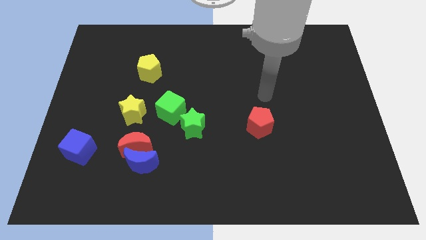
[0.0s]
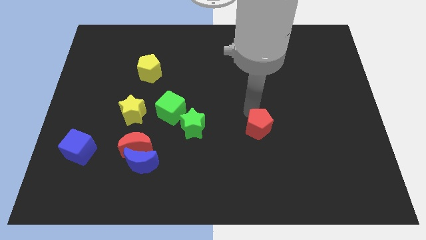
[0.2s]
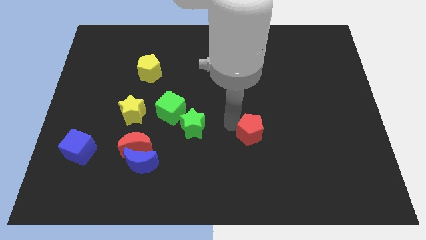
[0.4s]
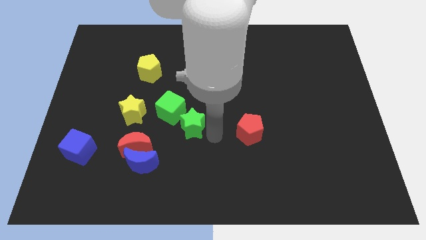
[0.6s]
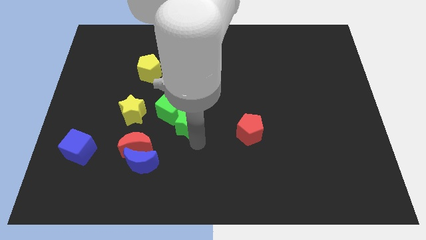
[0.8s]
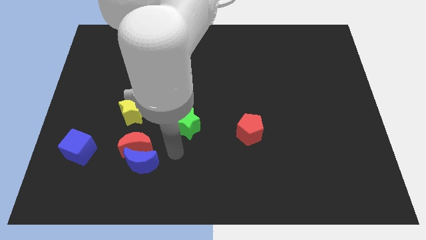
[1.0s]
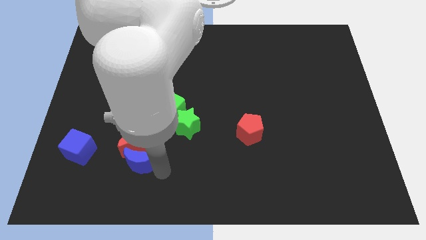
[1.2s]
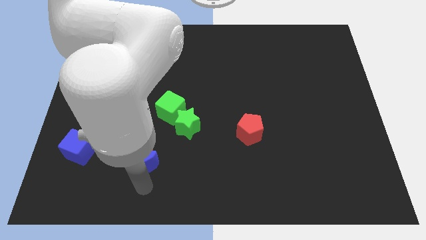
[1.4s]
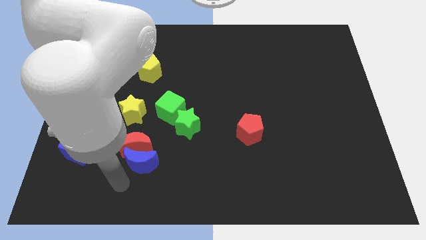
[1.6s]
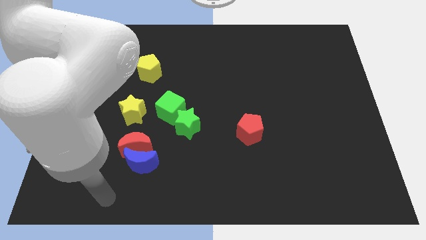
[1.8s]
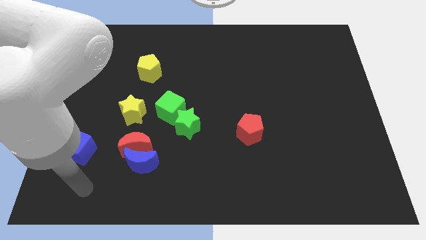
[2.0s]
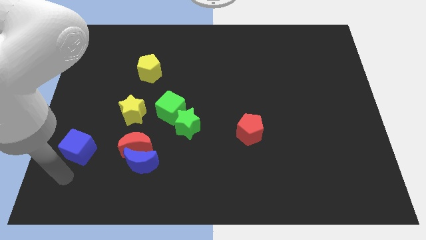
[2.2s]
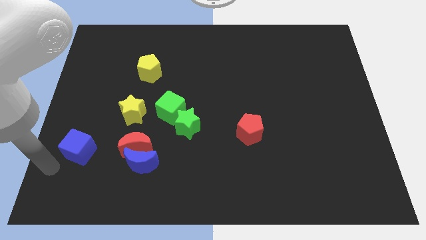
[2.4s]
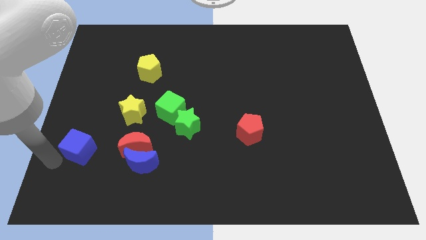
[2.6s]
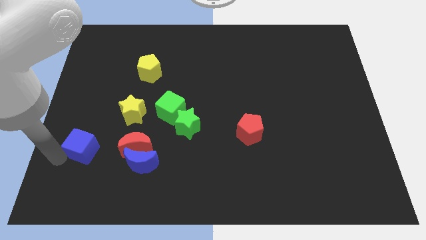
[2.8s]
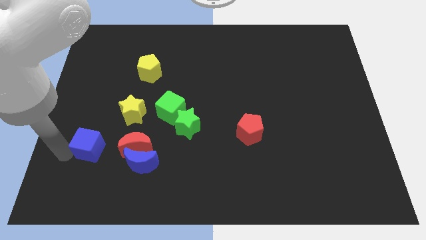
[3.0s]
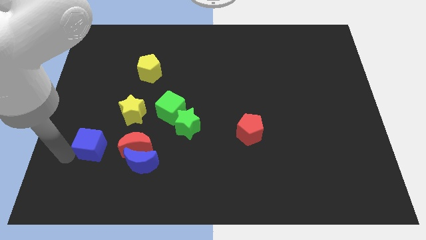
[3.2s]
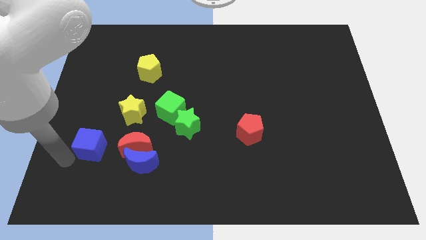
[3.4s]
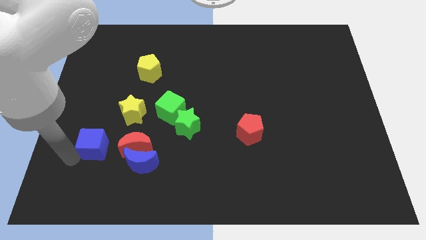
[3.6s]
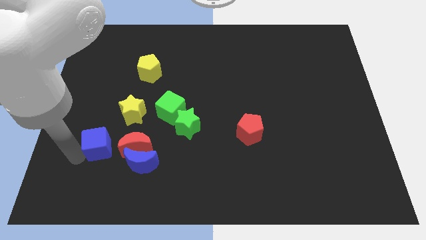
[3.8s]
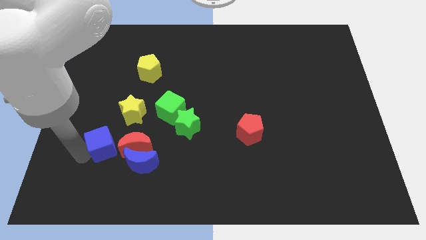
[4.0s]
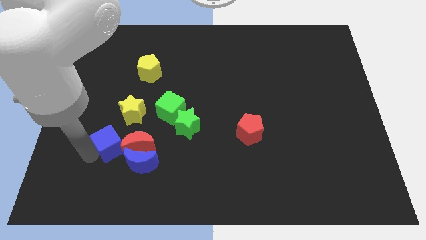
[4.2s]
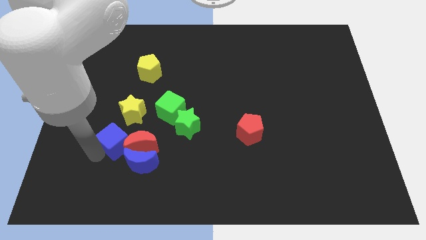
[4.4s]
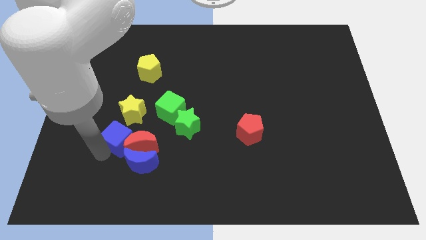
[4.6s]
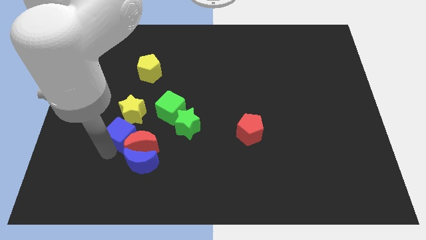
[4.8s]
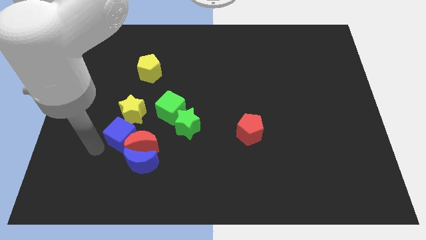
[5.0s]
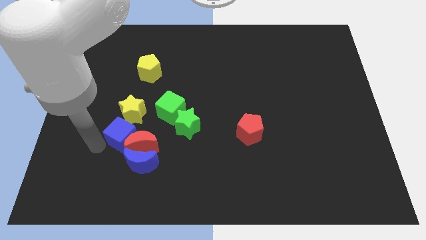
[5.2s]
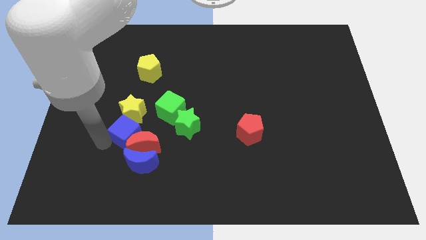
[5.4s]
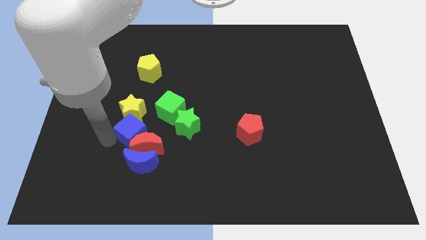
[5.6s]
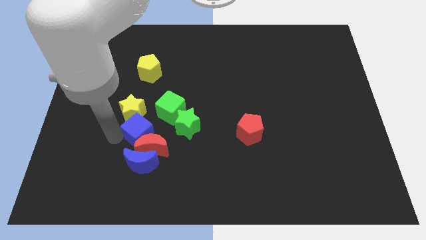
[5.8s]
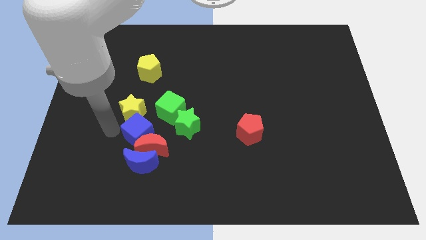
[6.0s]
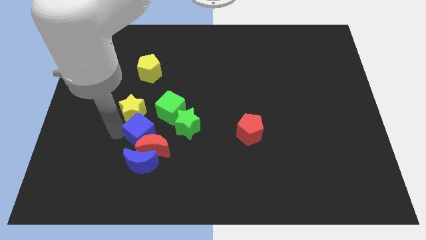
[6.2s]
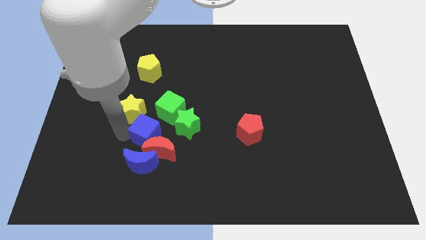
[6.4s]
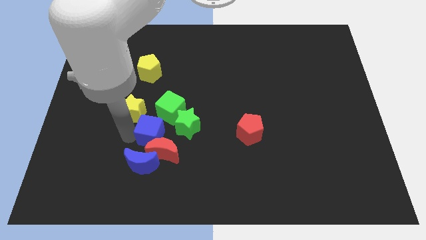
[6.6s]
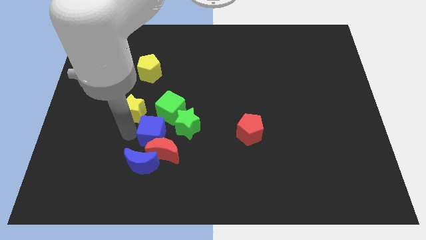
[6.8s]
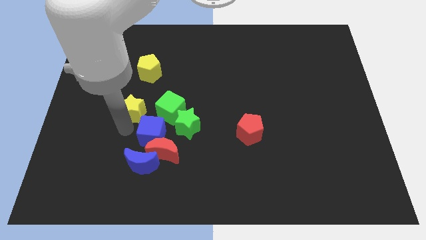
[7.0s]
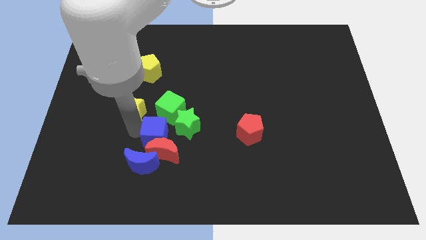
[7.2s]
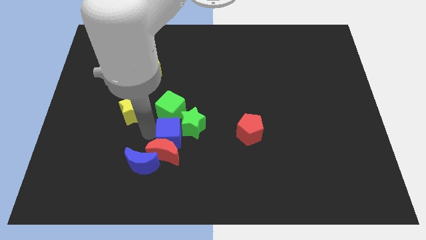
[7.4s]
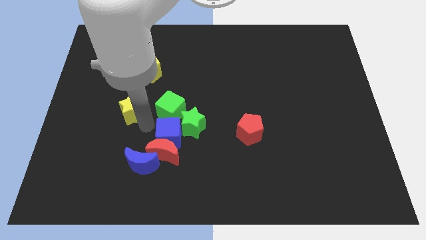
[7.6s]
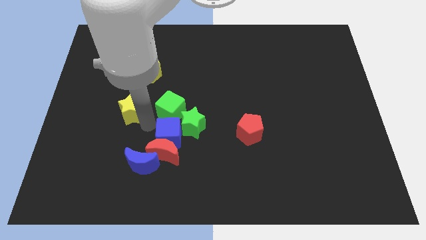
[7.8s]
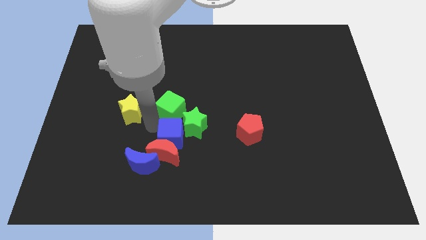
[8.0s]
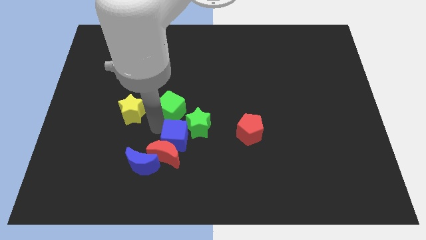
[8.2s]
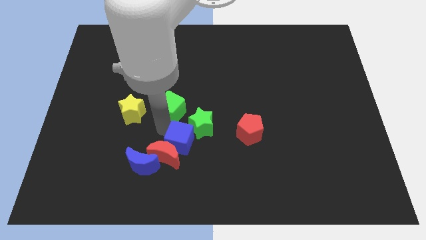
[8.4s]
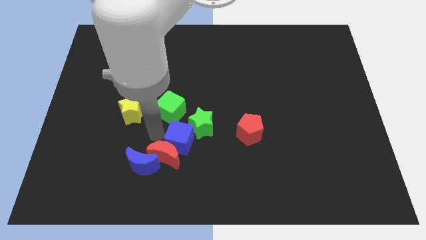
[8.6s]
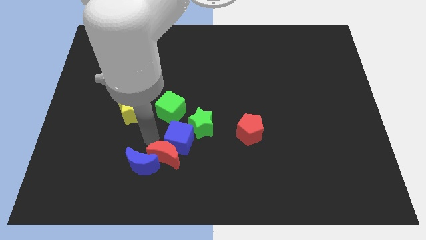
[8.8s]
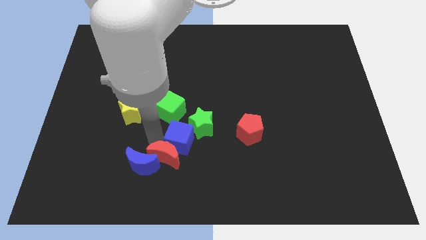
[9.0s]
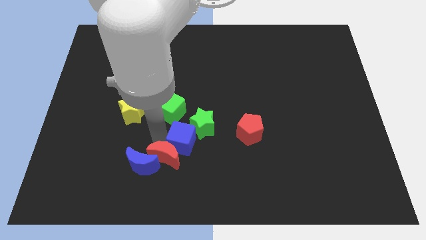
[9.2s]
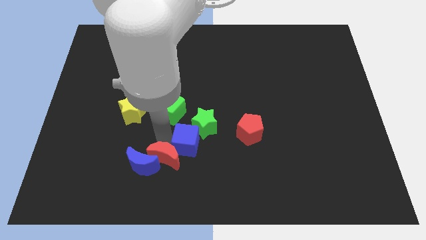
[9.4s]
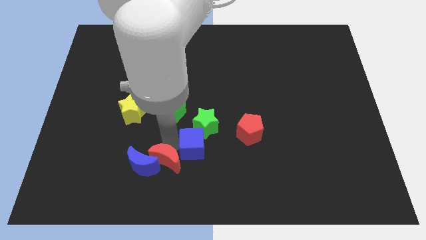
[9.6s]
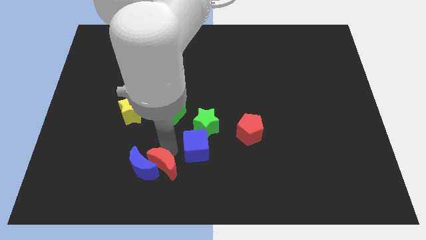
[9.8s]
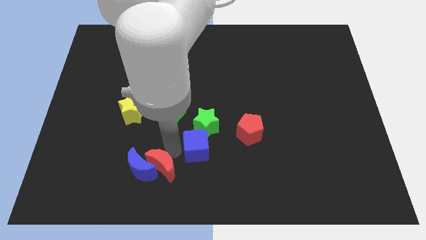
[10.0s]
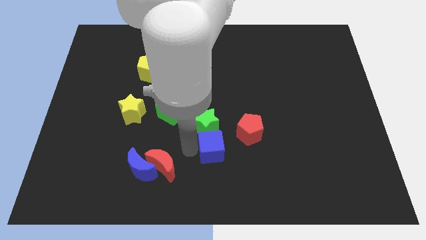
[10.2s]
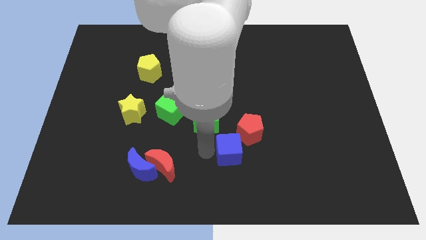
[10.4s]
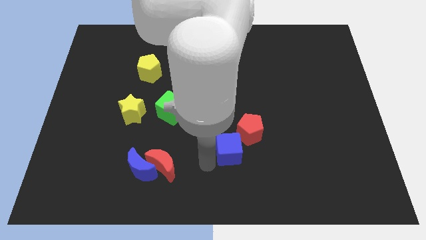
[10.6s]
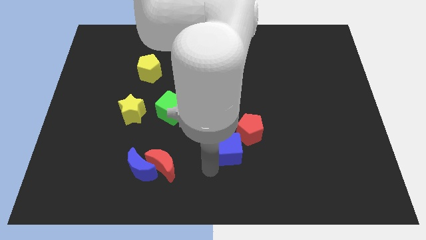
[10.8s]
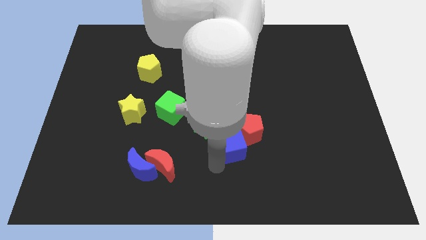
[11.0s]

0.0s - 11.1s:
move the blue cube close to the red pentagon

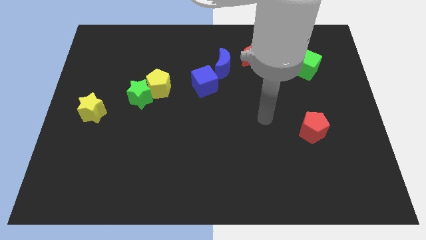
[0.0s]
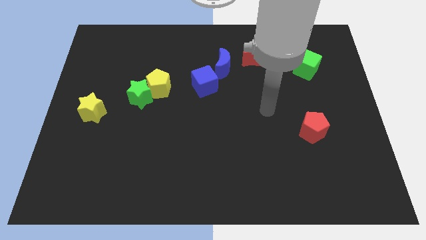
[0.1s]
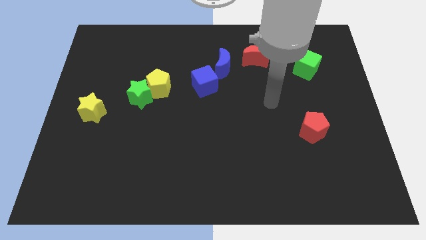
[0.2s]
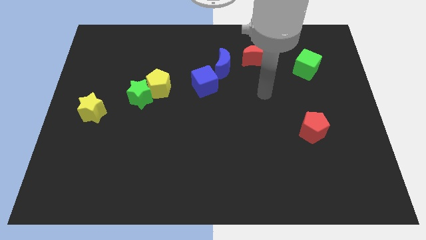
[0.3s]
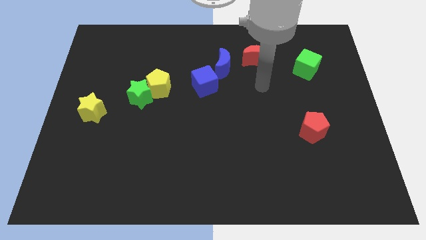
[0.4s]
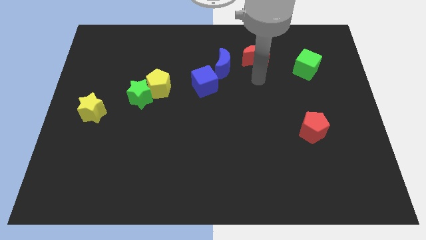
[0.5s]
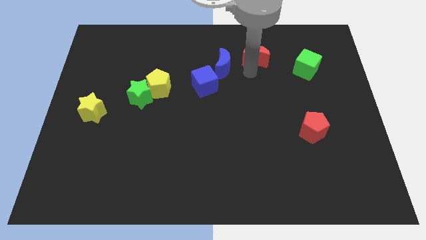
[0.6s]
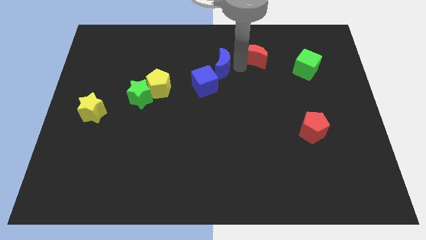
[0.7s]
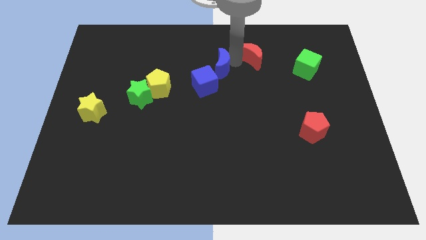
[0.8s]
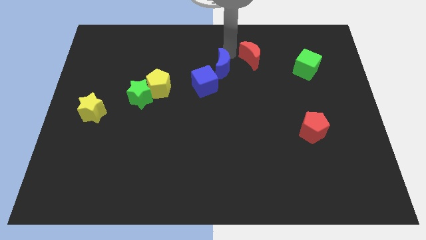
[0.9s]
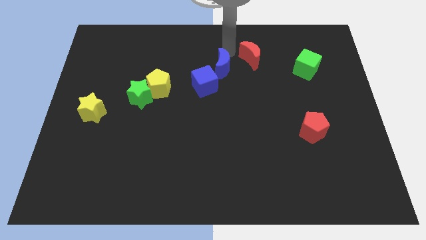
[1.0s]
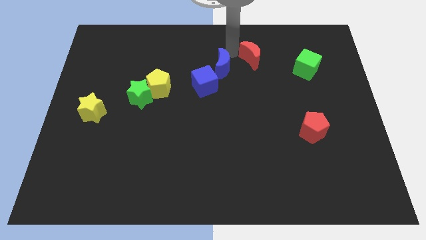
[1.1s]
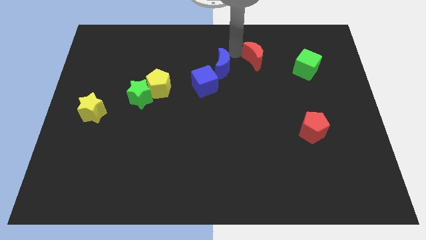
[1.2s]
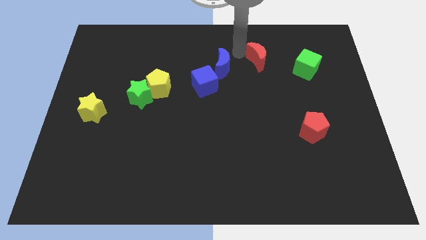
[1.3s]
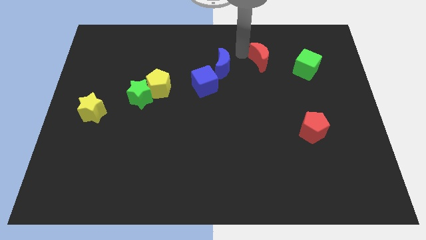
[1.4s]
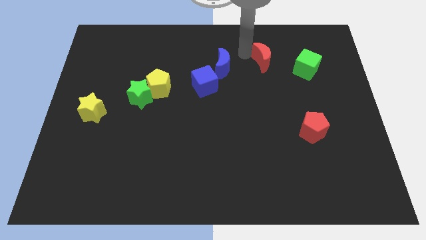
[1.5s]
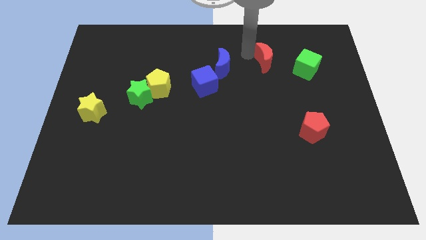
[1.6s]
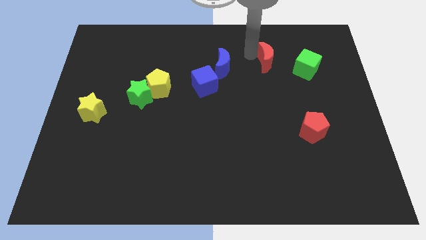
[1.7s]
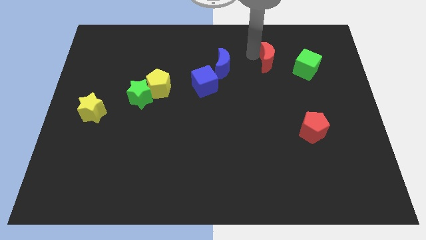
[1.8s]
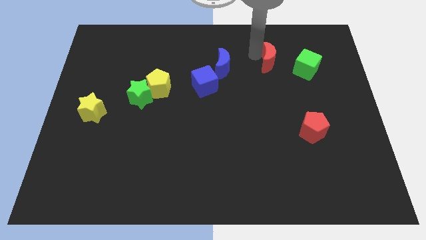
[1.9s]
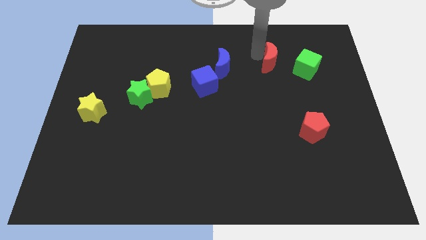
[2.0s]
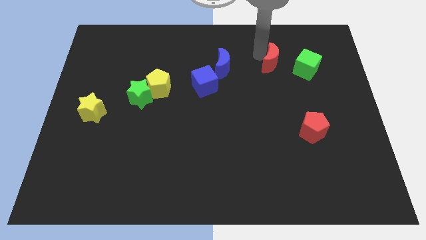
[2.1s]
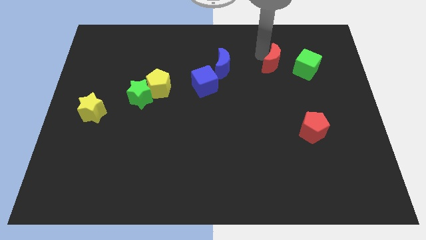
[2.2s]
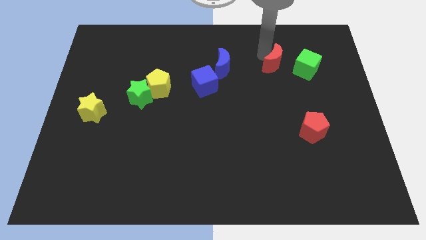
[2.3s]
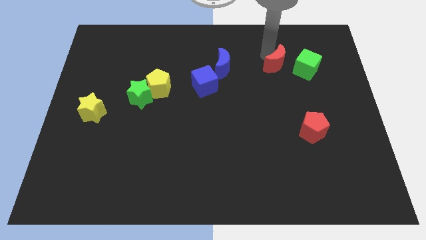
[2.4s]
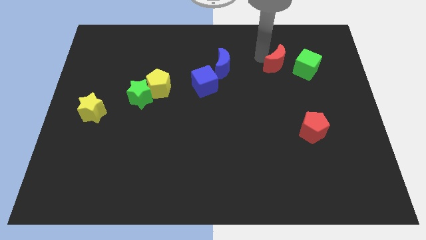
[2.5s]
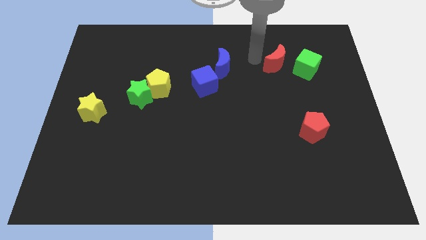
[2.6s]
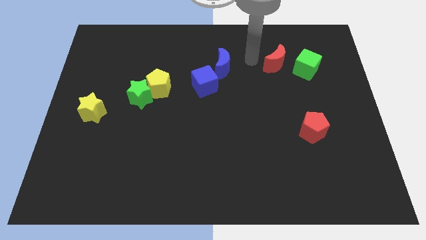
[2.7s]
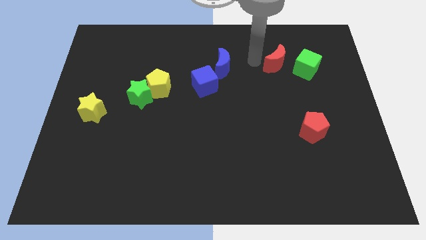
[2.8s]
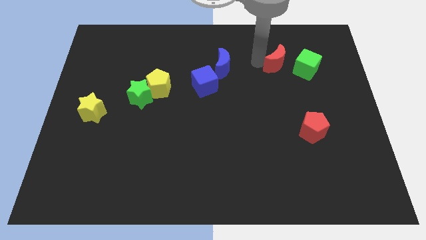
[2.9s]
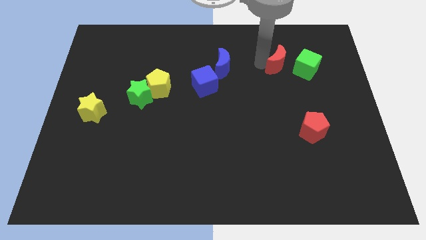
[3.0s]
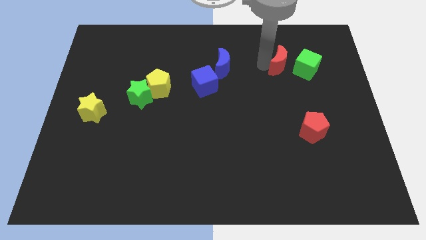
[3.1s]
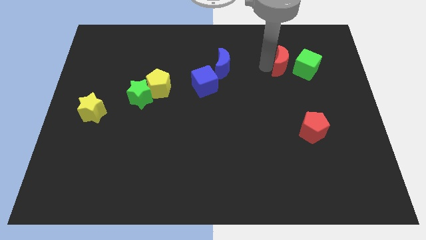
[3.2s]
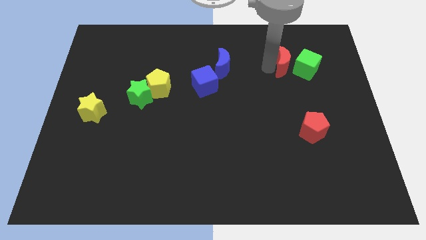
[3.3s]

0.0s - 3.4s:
slide the red moon to the green cube
